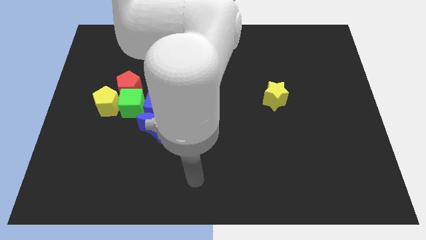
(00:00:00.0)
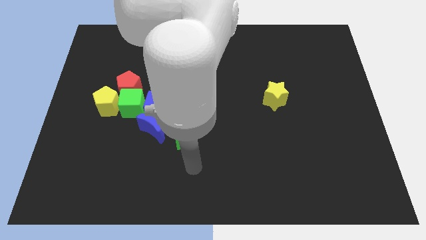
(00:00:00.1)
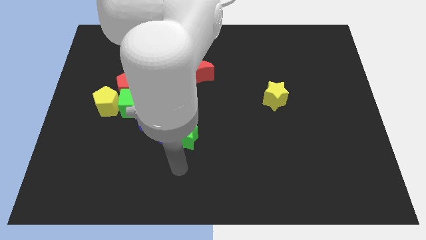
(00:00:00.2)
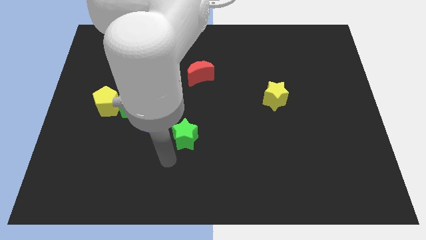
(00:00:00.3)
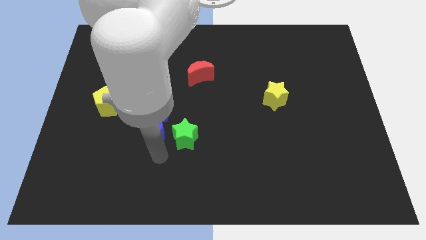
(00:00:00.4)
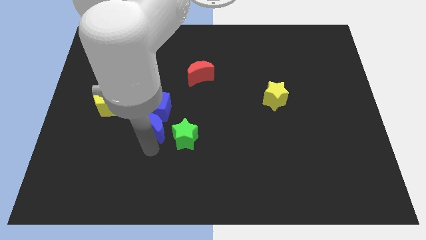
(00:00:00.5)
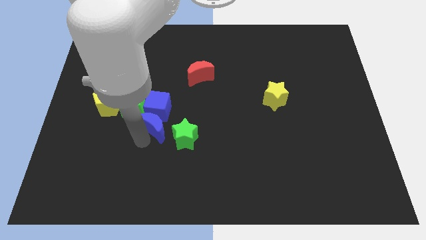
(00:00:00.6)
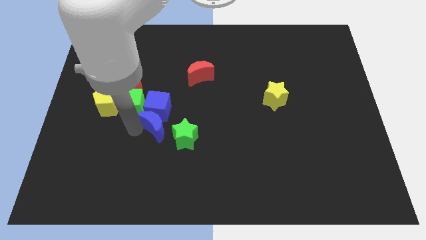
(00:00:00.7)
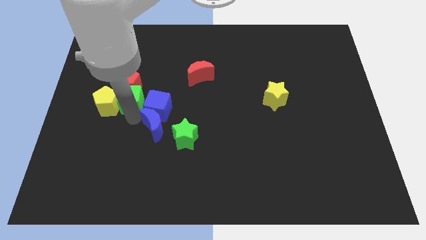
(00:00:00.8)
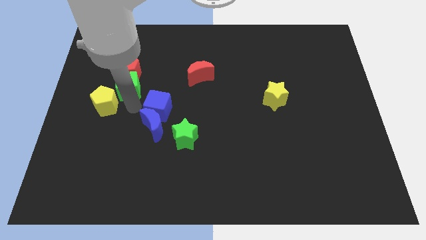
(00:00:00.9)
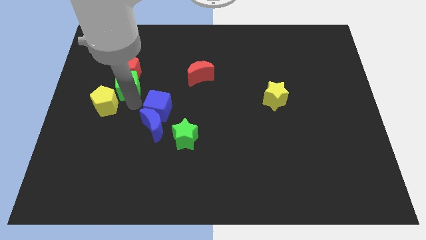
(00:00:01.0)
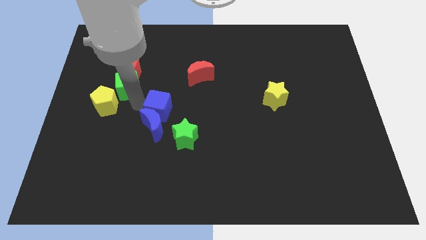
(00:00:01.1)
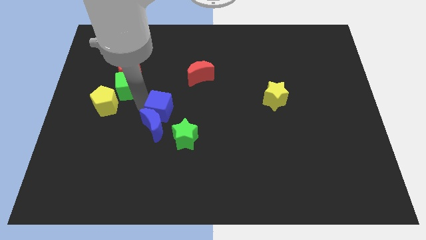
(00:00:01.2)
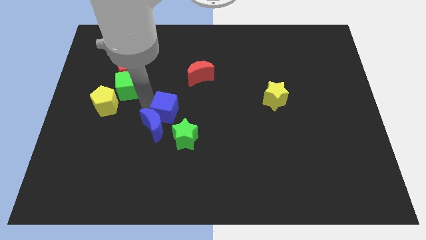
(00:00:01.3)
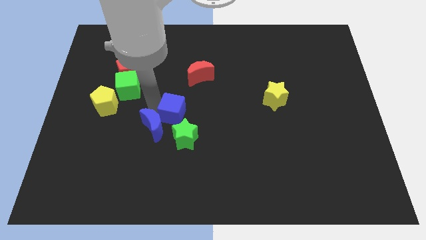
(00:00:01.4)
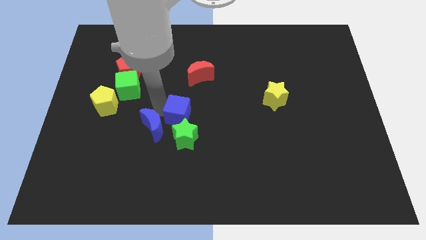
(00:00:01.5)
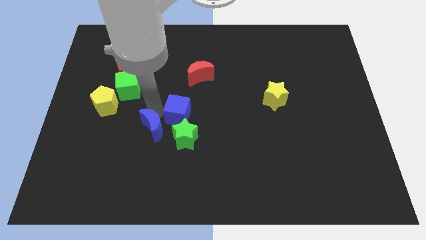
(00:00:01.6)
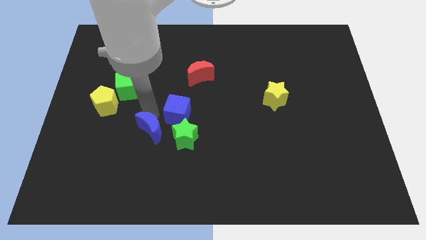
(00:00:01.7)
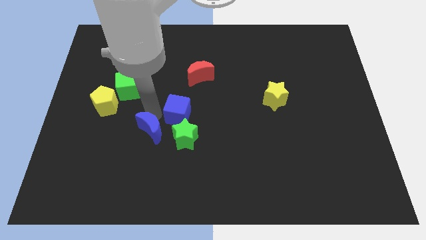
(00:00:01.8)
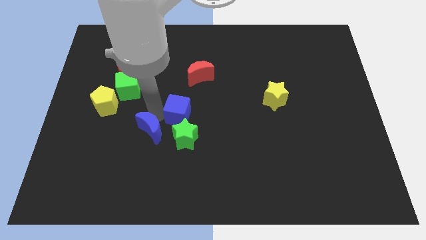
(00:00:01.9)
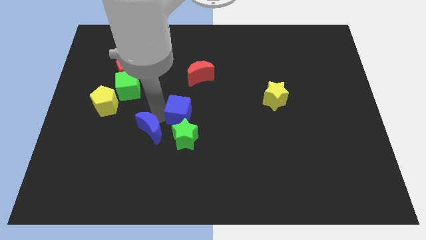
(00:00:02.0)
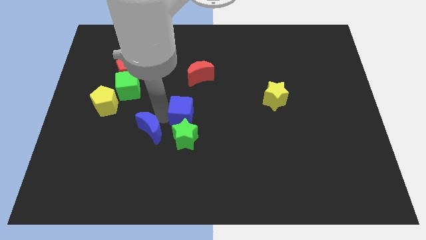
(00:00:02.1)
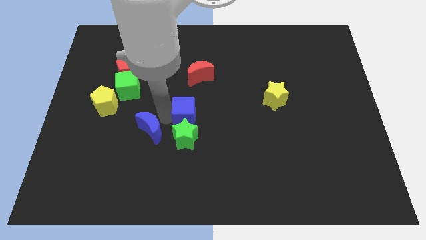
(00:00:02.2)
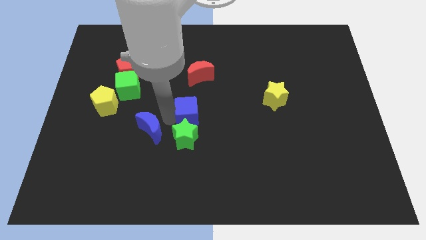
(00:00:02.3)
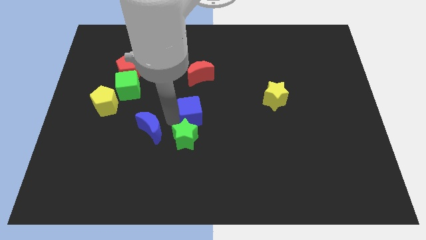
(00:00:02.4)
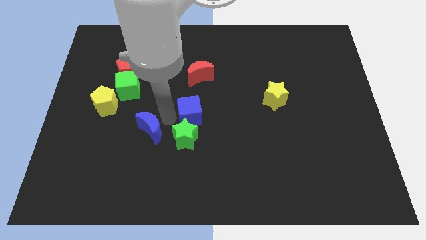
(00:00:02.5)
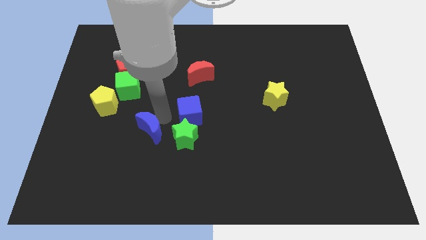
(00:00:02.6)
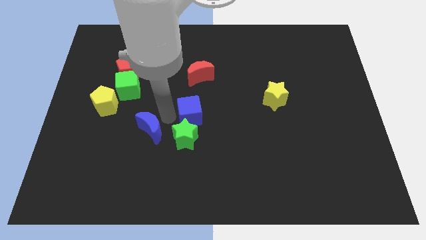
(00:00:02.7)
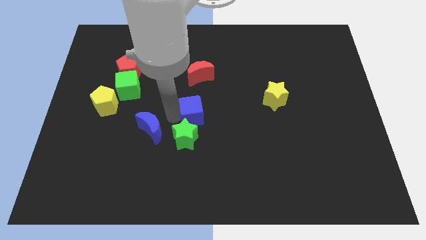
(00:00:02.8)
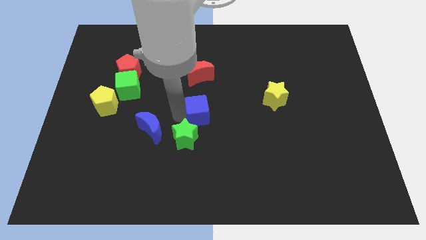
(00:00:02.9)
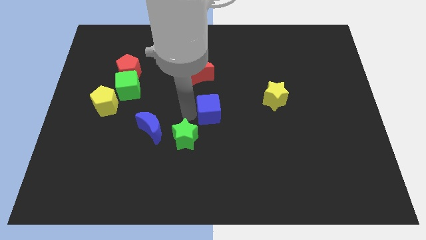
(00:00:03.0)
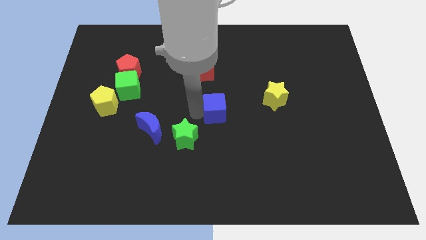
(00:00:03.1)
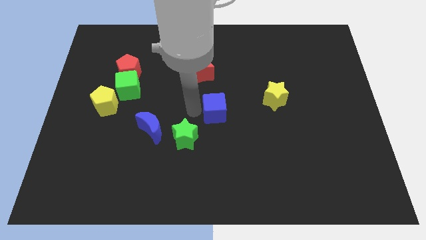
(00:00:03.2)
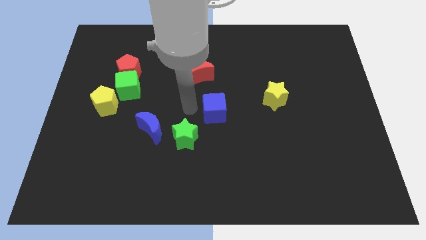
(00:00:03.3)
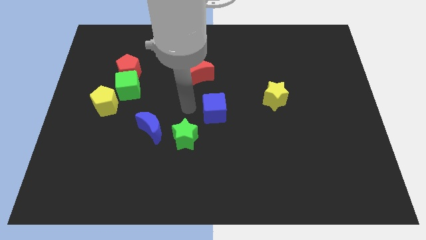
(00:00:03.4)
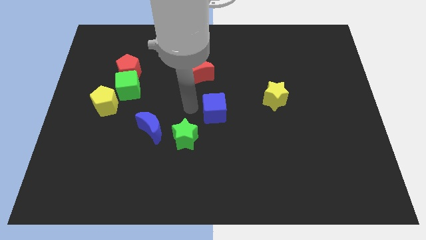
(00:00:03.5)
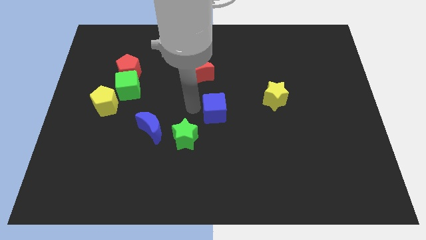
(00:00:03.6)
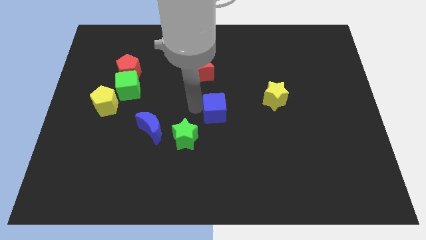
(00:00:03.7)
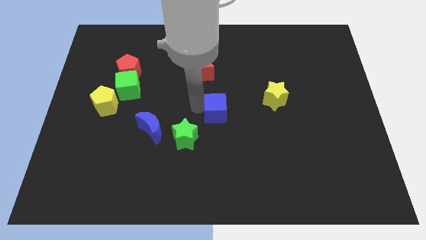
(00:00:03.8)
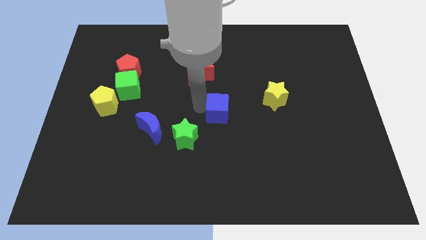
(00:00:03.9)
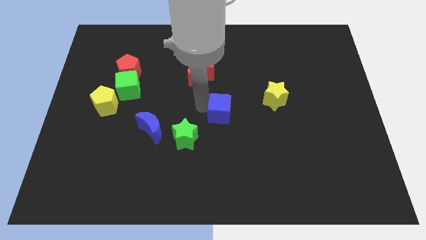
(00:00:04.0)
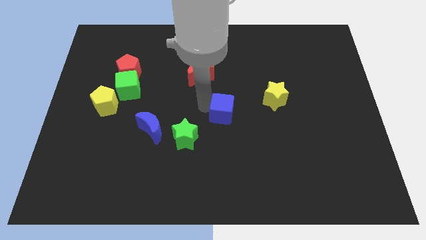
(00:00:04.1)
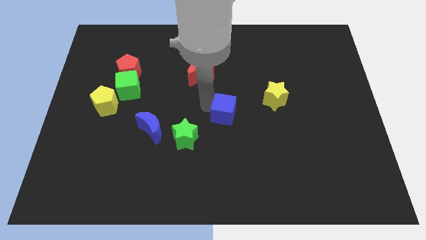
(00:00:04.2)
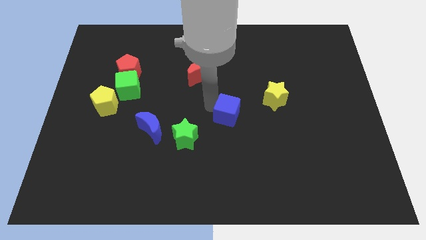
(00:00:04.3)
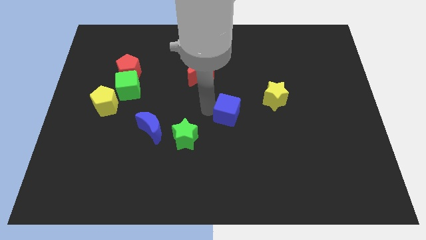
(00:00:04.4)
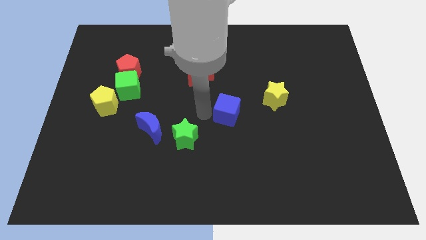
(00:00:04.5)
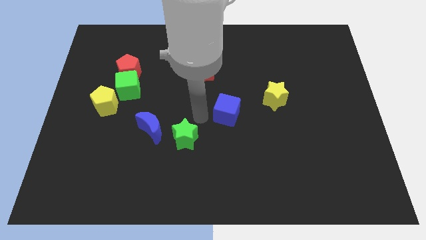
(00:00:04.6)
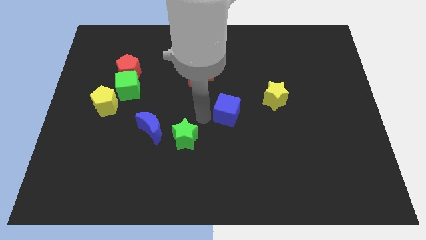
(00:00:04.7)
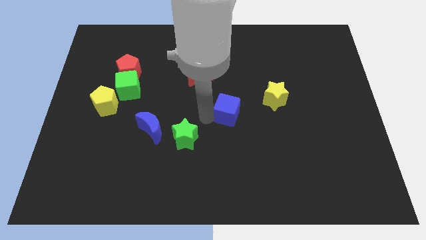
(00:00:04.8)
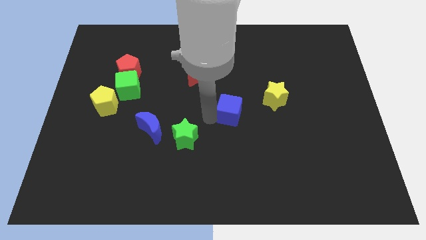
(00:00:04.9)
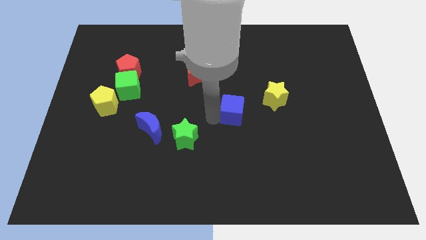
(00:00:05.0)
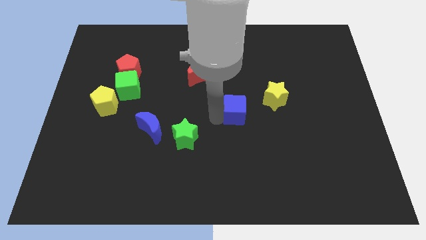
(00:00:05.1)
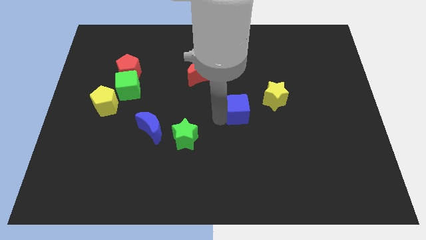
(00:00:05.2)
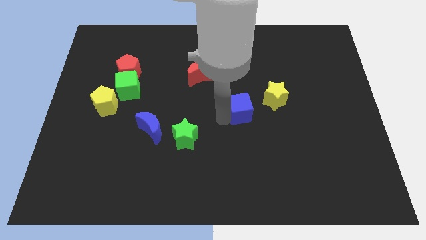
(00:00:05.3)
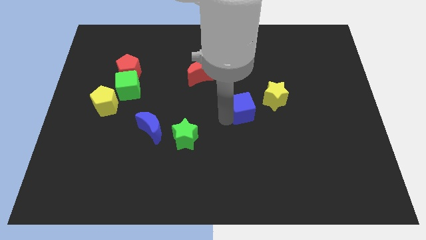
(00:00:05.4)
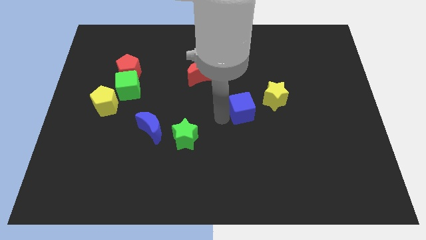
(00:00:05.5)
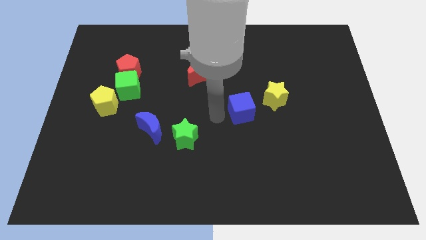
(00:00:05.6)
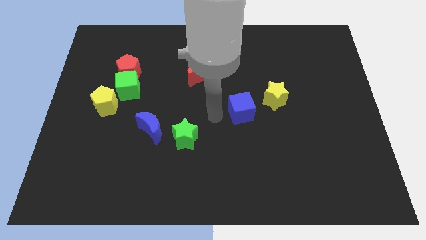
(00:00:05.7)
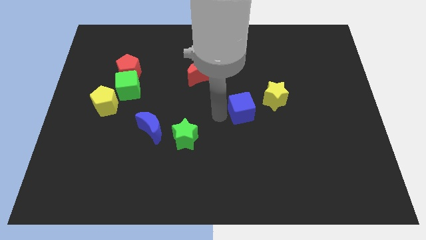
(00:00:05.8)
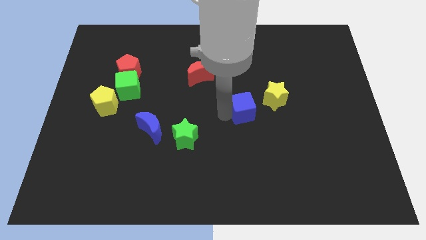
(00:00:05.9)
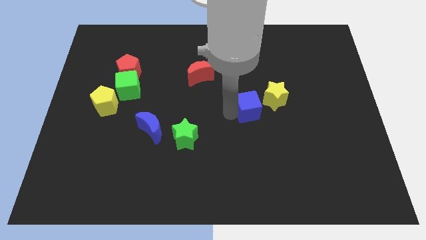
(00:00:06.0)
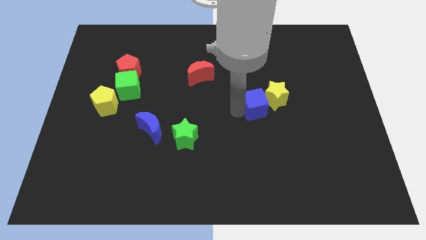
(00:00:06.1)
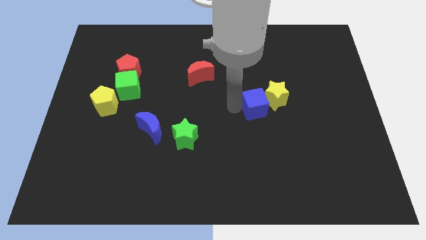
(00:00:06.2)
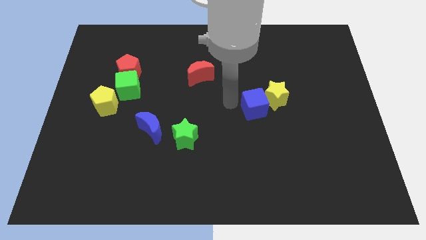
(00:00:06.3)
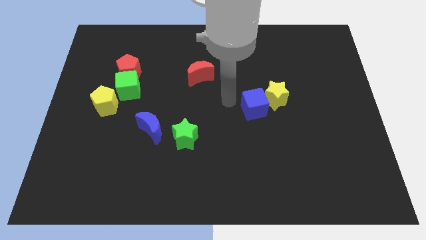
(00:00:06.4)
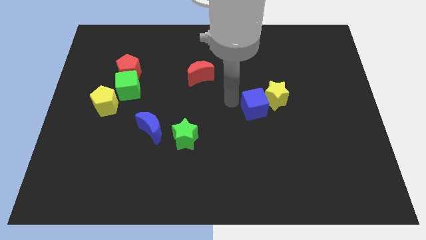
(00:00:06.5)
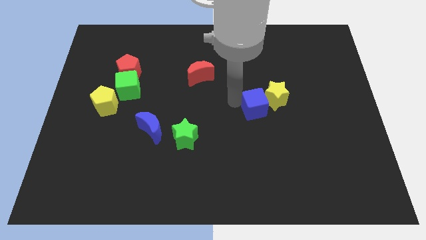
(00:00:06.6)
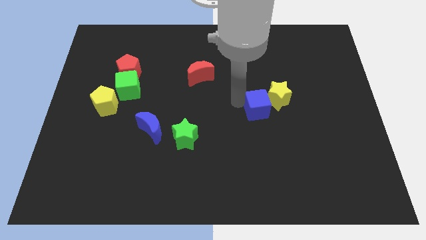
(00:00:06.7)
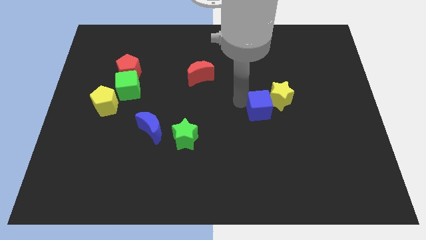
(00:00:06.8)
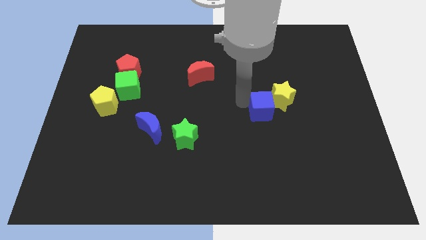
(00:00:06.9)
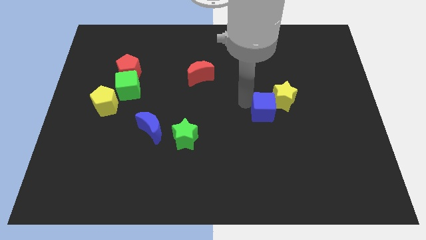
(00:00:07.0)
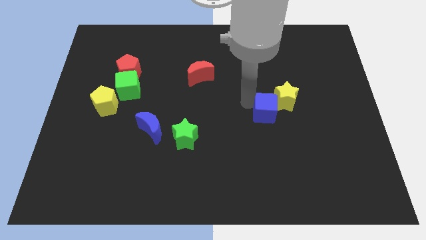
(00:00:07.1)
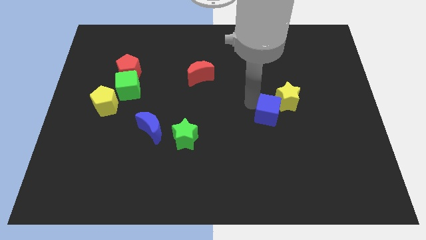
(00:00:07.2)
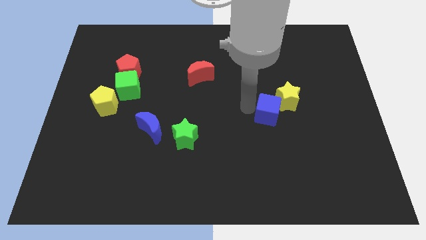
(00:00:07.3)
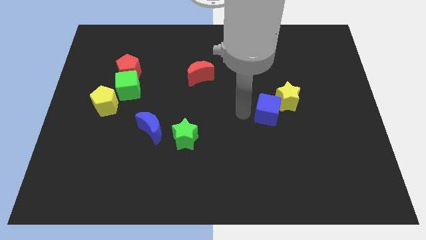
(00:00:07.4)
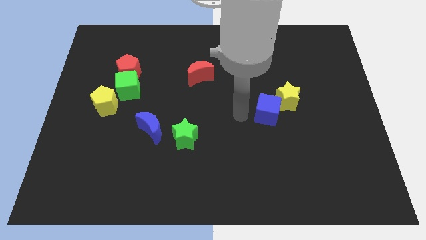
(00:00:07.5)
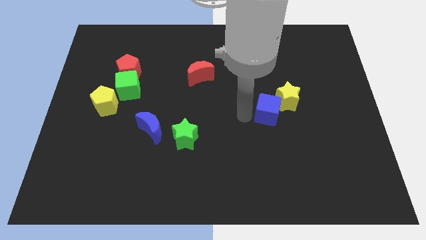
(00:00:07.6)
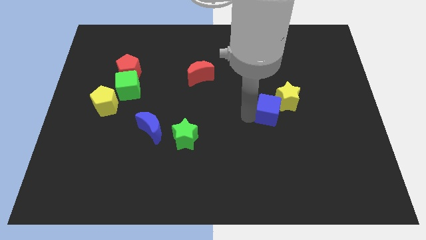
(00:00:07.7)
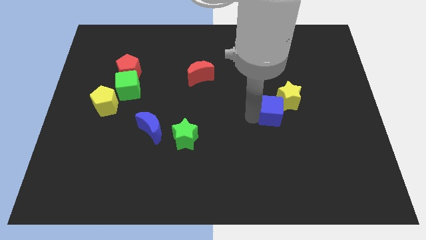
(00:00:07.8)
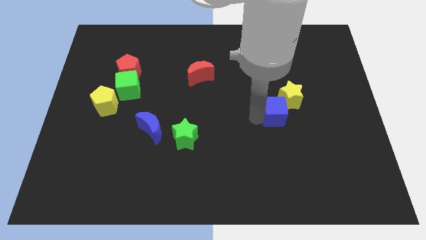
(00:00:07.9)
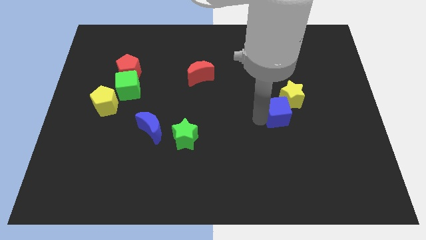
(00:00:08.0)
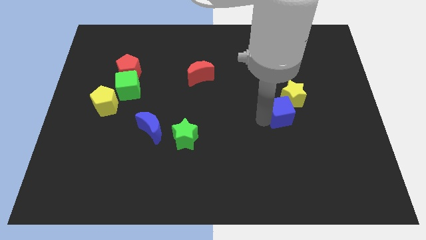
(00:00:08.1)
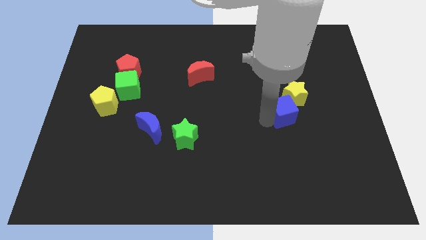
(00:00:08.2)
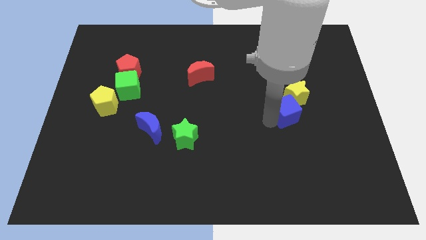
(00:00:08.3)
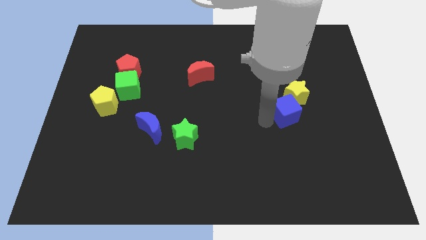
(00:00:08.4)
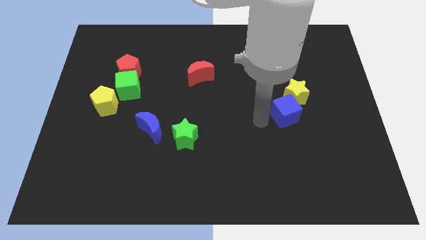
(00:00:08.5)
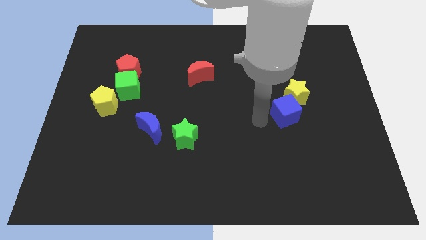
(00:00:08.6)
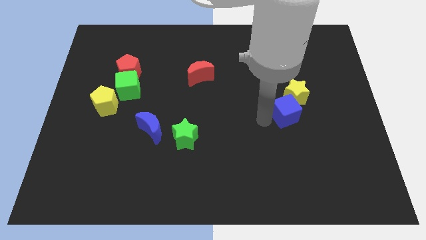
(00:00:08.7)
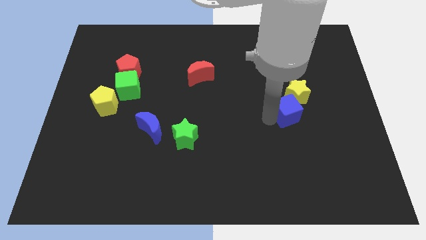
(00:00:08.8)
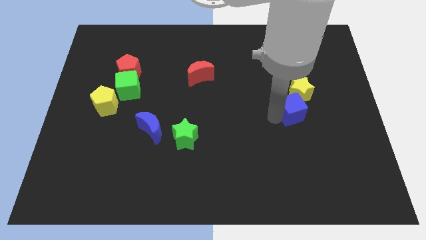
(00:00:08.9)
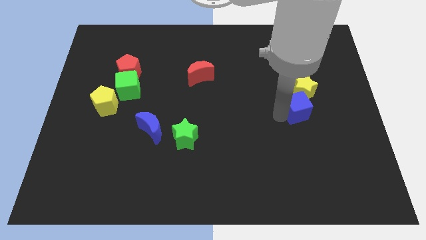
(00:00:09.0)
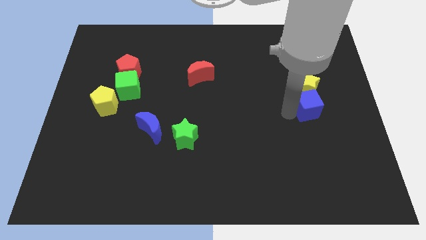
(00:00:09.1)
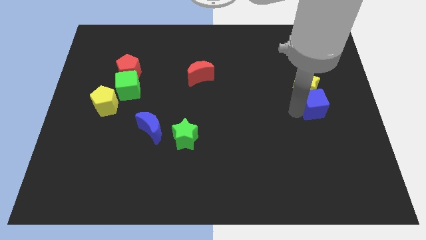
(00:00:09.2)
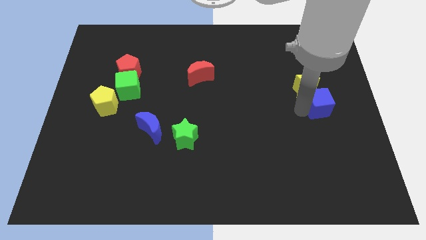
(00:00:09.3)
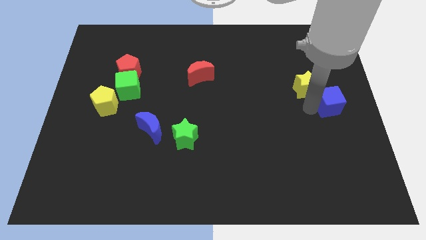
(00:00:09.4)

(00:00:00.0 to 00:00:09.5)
push the blue cube to the center right
